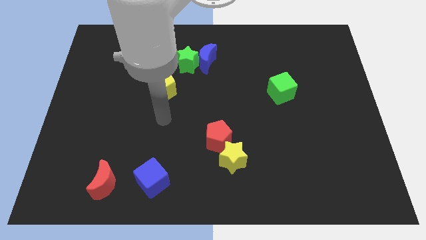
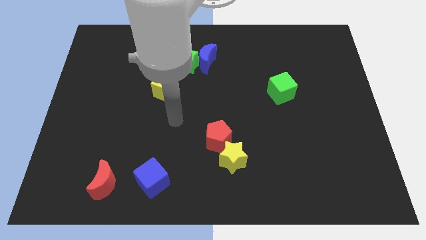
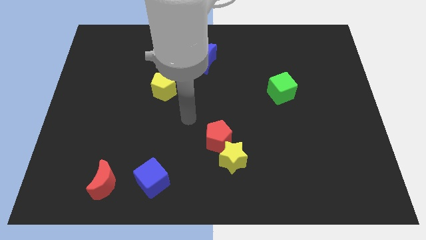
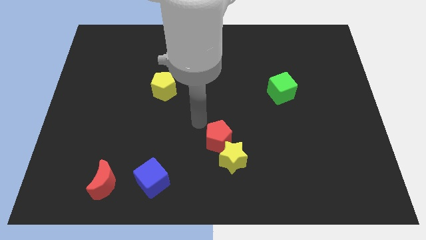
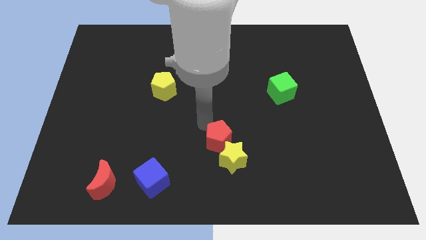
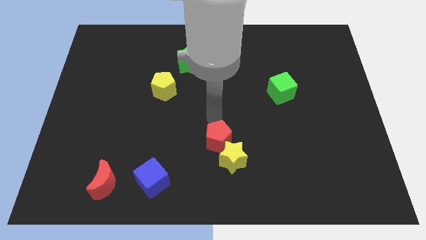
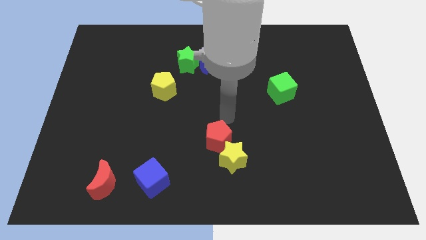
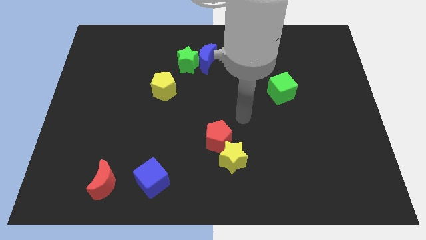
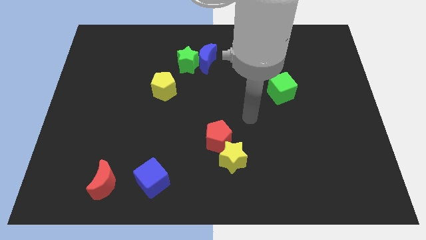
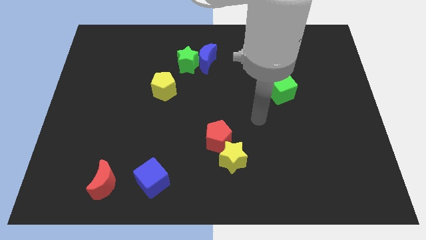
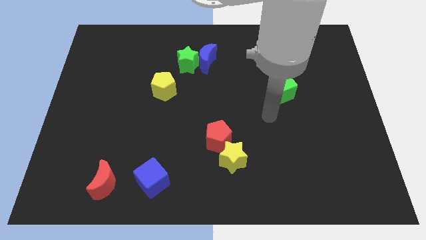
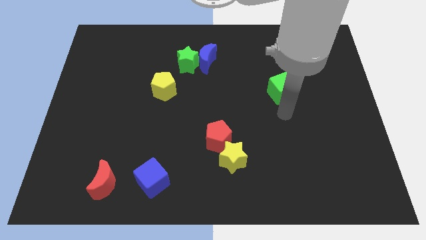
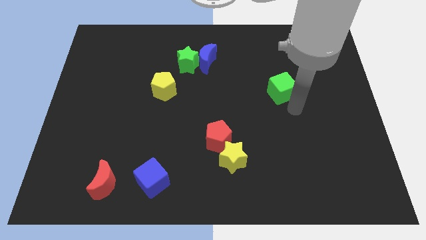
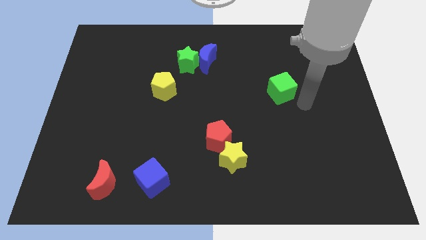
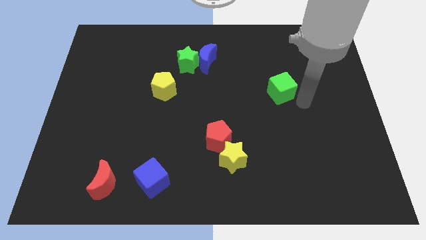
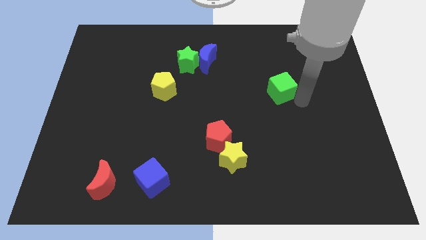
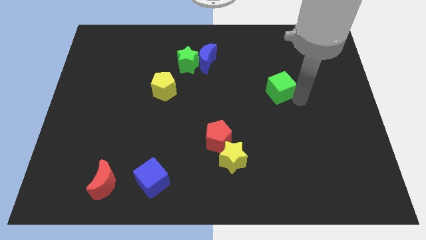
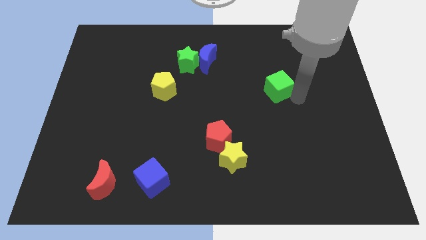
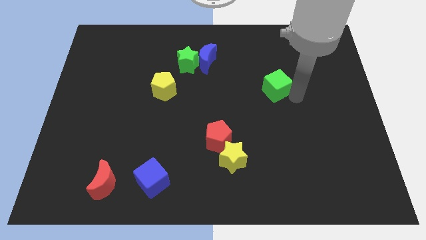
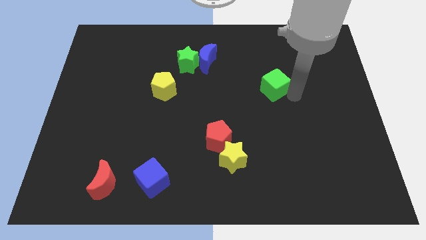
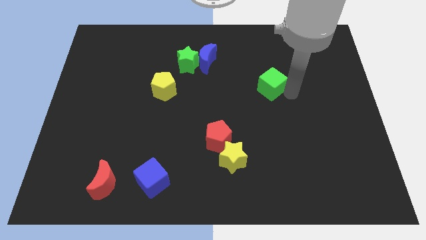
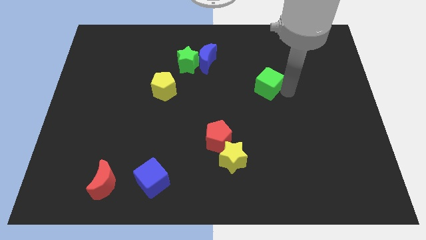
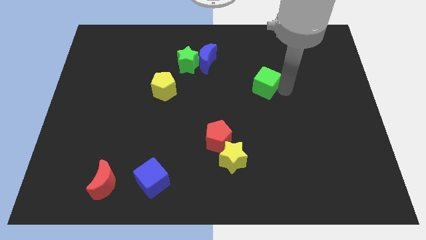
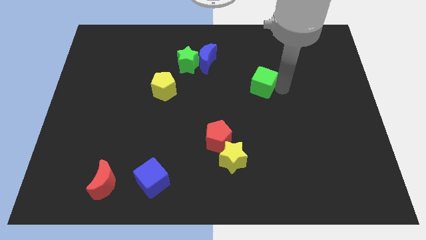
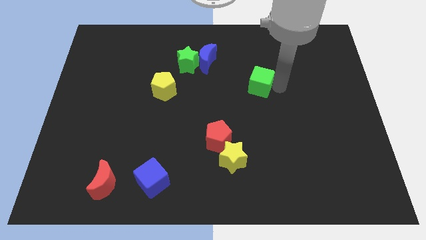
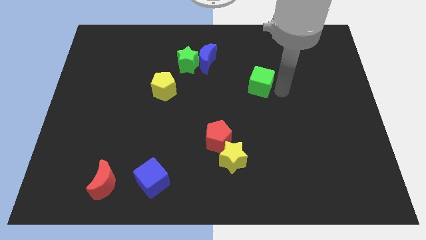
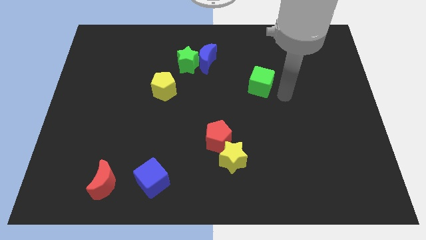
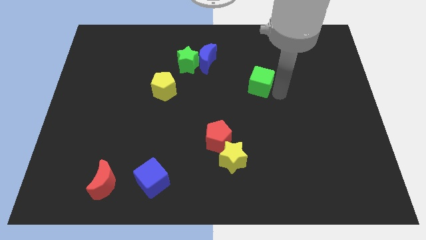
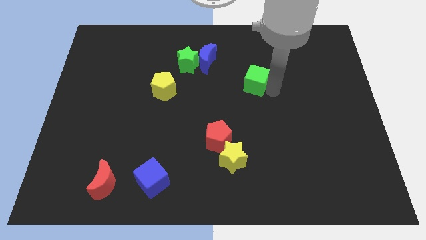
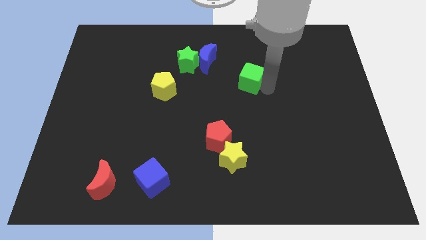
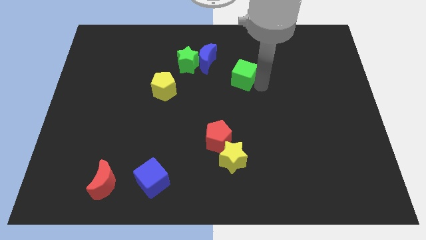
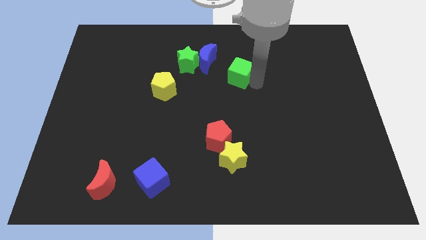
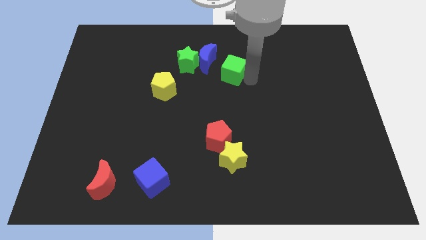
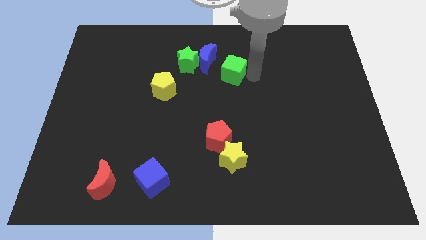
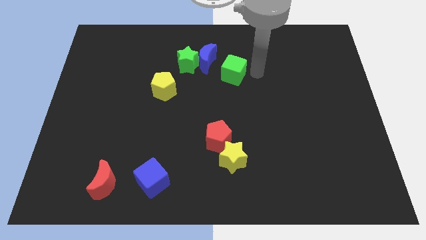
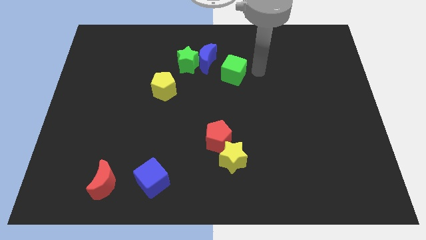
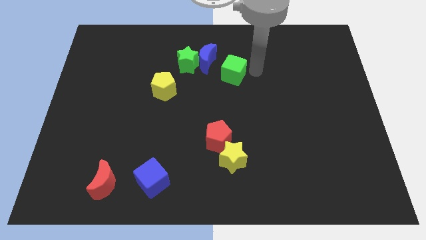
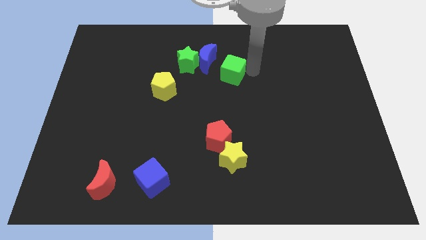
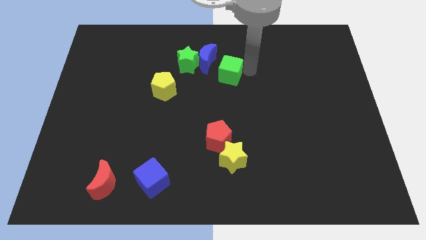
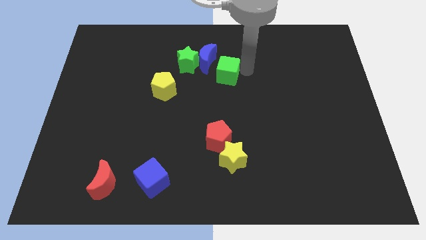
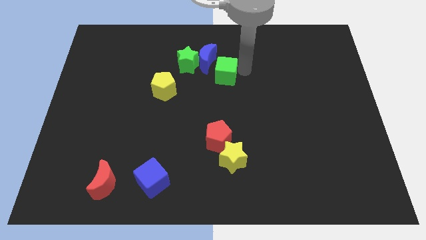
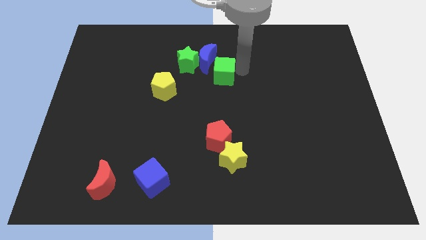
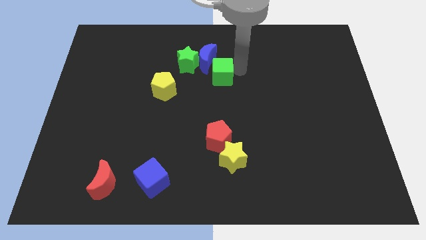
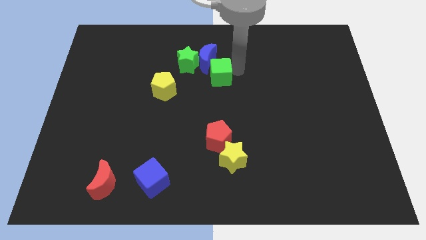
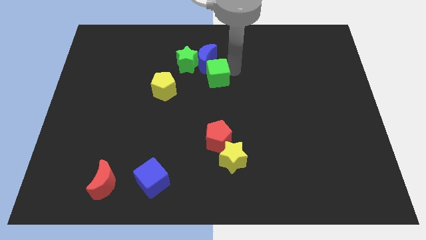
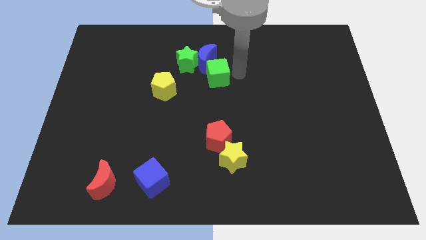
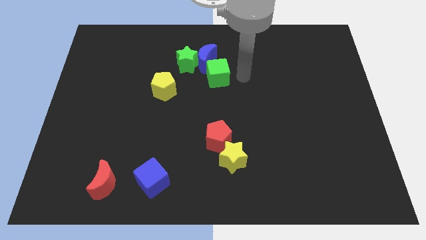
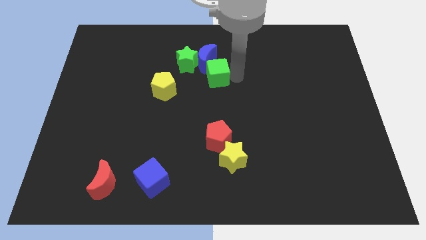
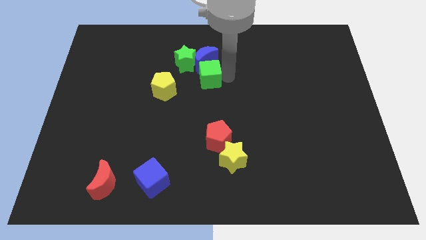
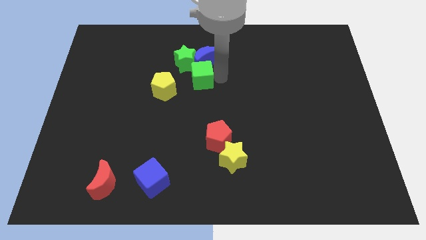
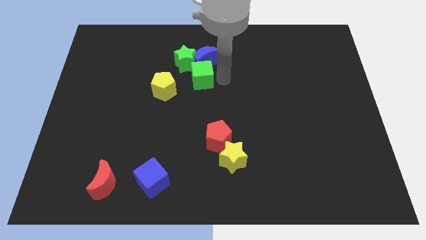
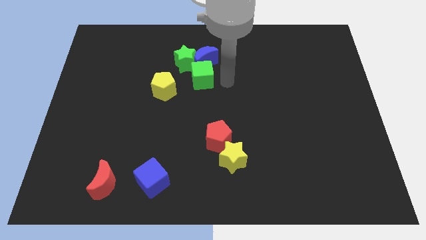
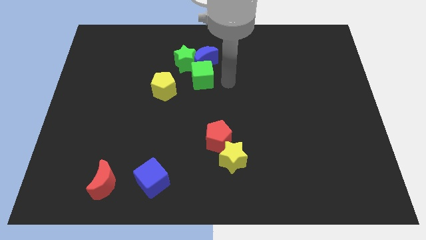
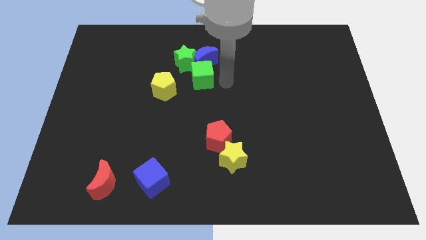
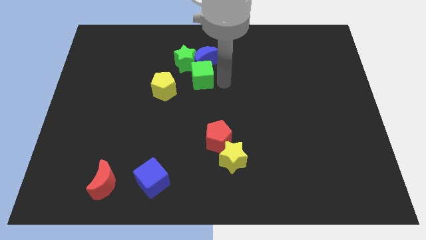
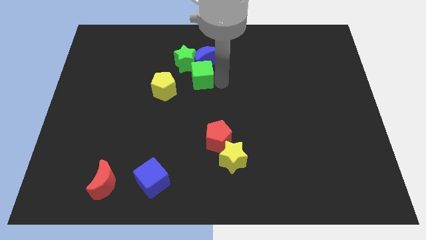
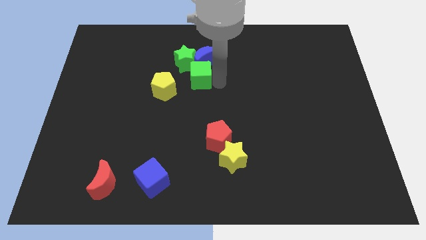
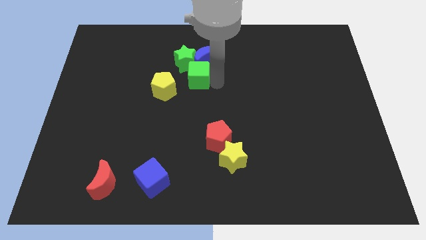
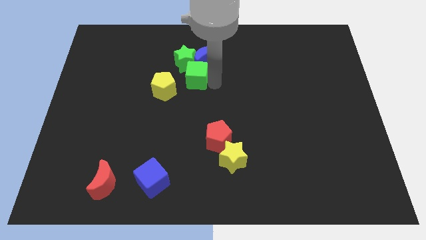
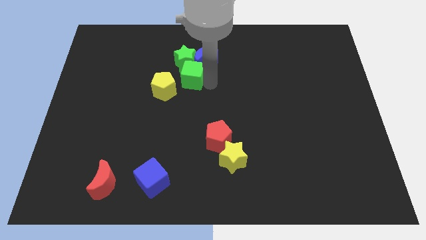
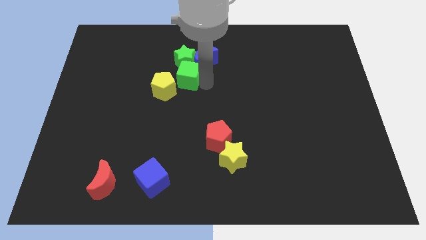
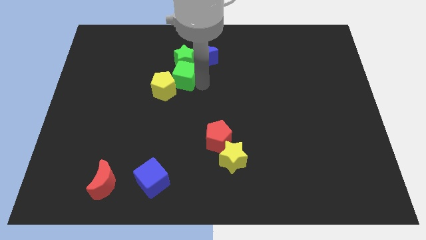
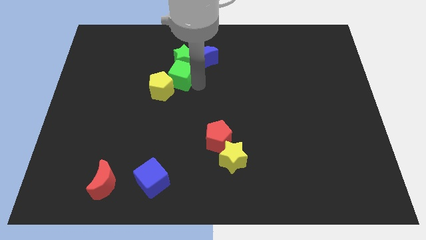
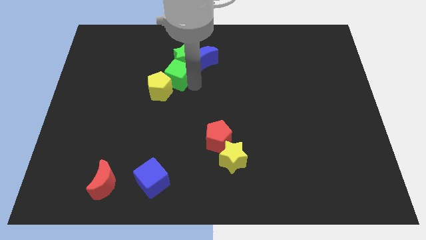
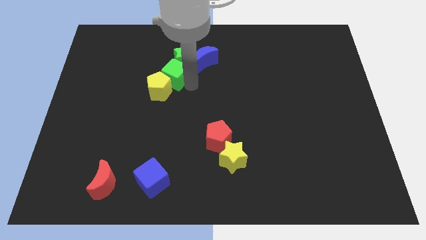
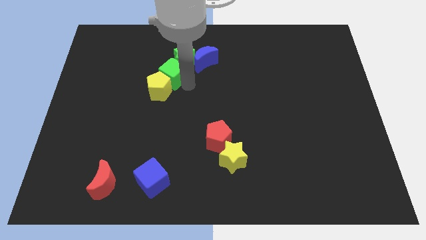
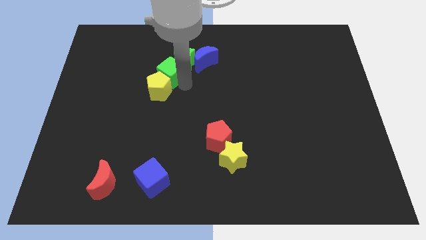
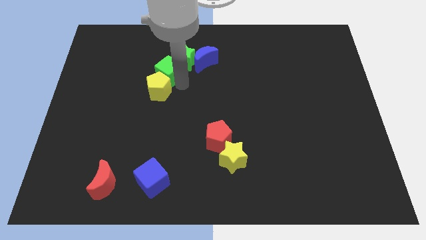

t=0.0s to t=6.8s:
push the green cube to the left of the blue moon

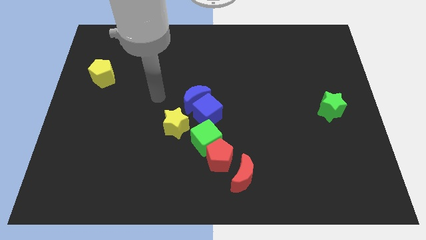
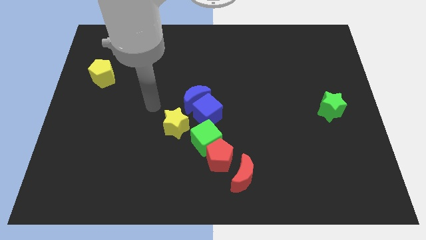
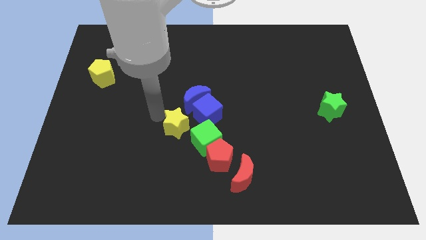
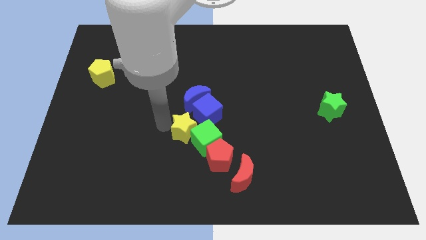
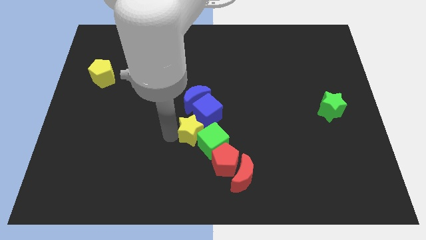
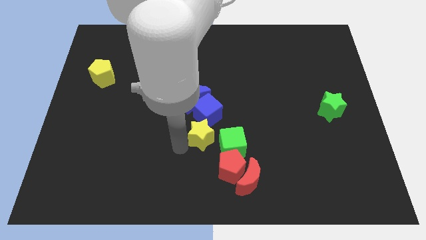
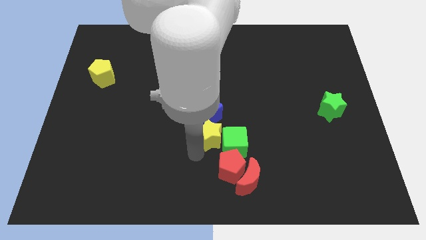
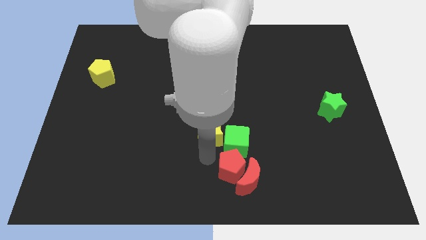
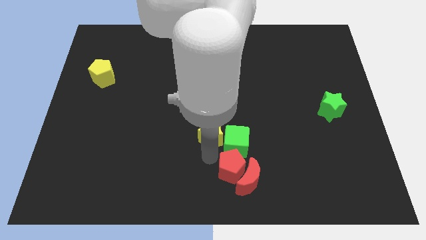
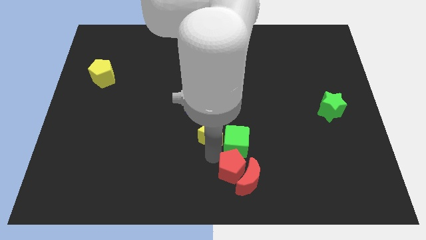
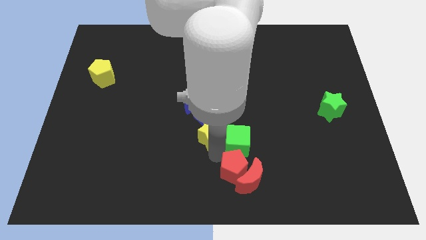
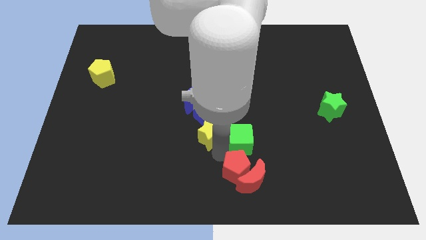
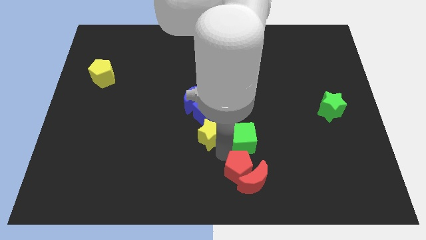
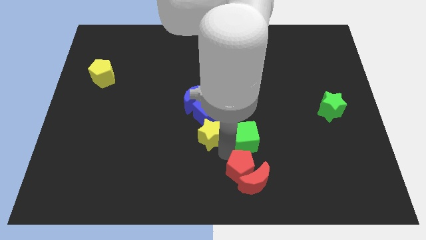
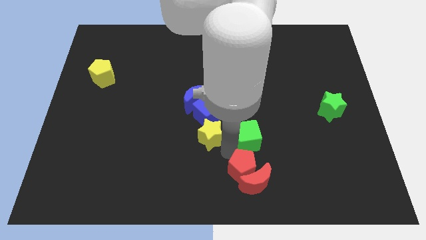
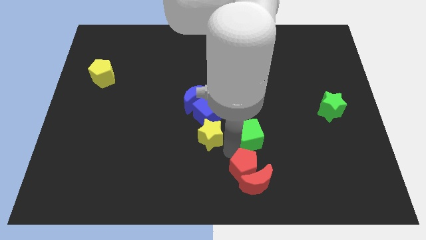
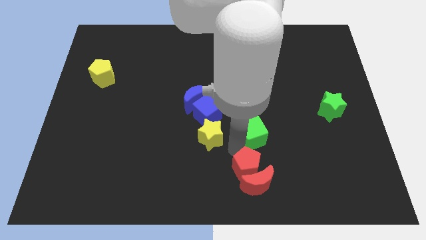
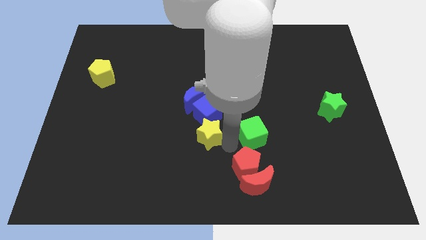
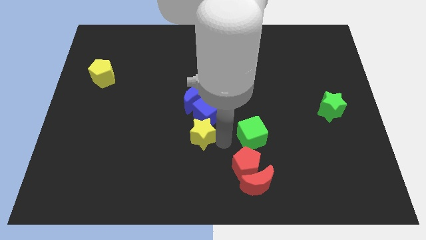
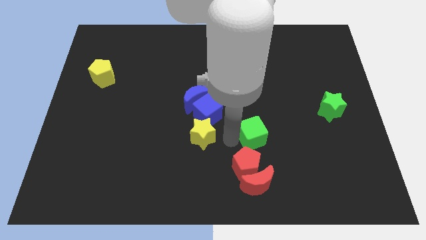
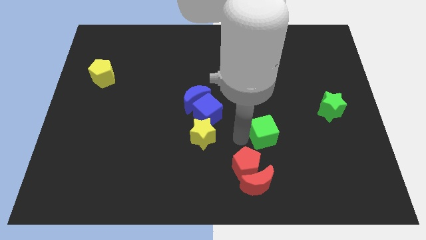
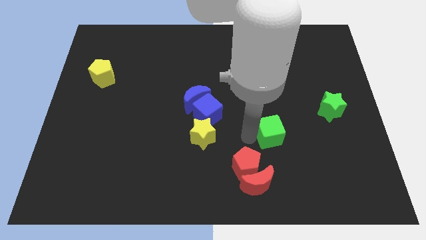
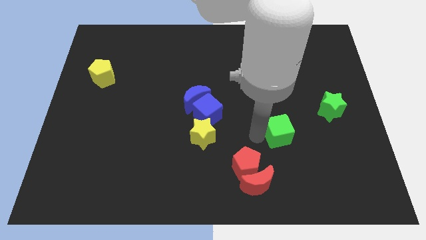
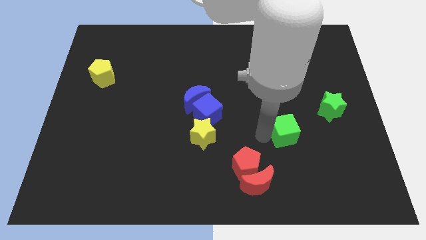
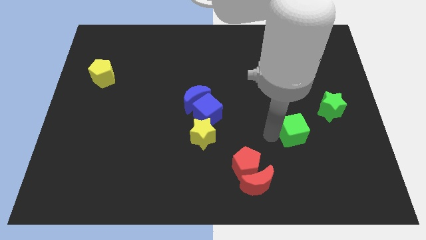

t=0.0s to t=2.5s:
put the green cube to the bottom left side of the green star
